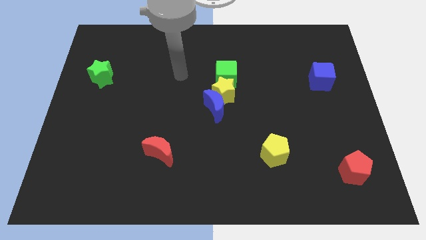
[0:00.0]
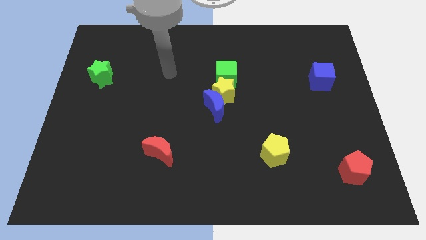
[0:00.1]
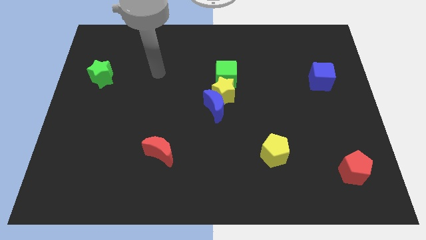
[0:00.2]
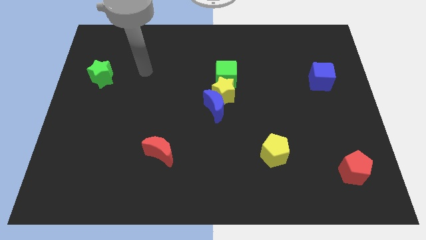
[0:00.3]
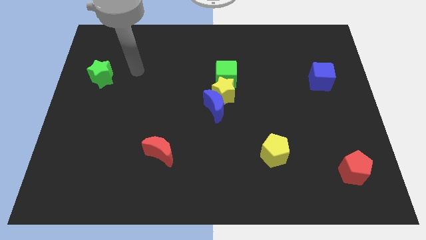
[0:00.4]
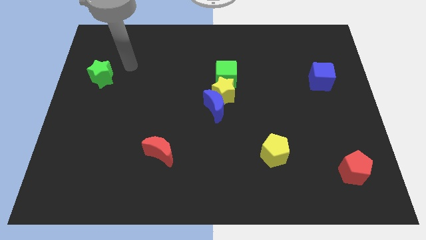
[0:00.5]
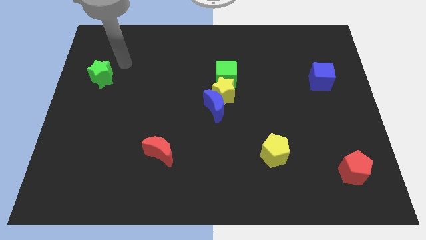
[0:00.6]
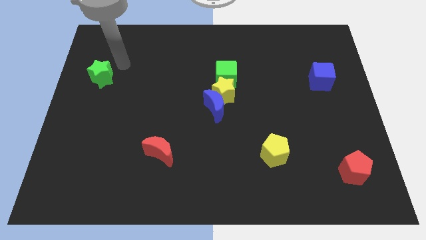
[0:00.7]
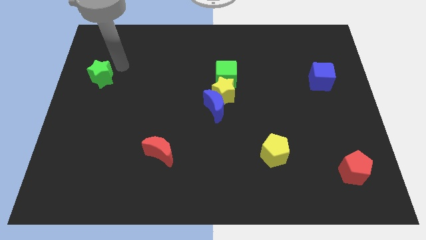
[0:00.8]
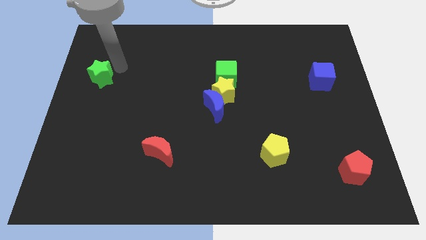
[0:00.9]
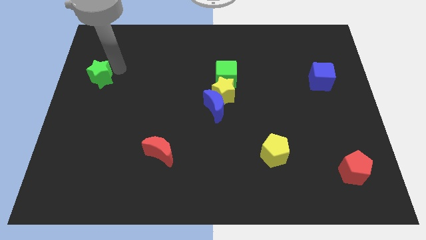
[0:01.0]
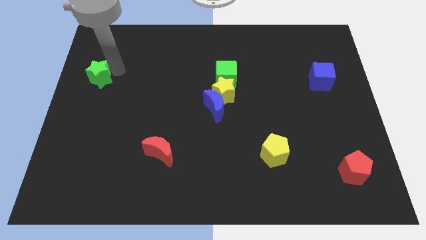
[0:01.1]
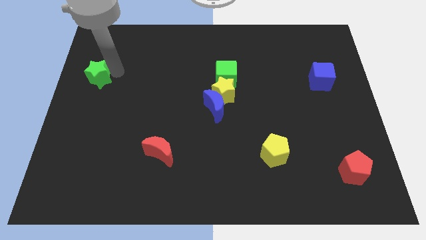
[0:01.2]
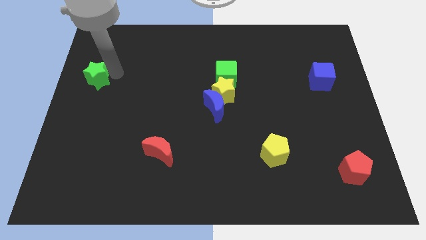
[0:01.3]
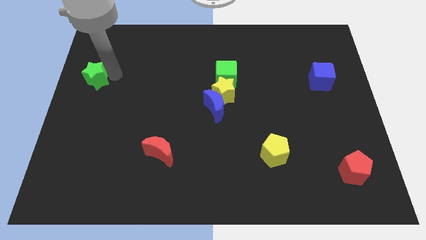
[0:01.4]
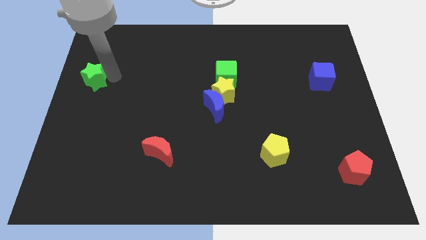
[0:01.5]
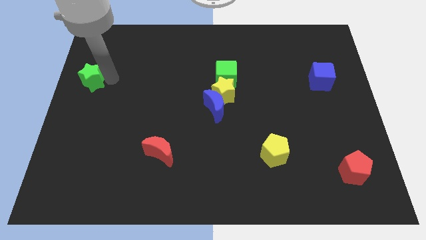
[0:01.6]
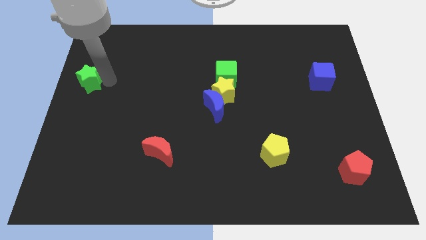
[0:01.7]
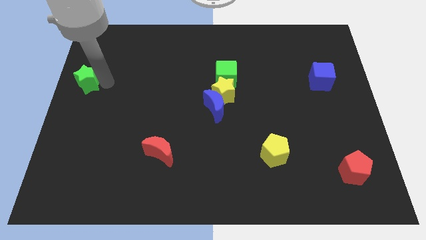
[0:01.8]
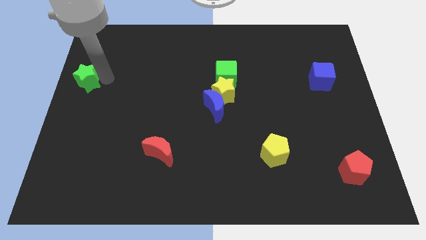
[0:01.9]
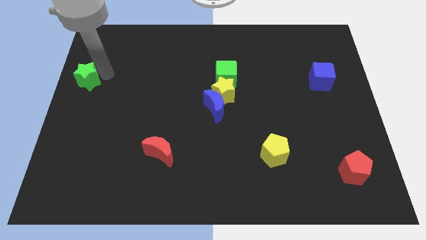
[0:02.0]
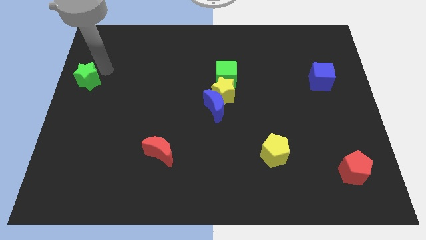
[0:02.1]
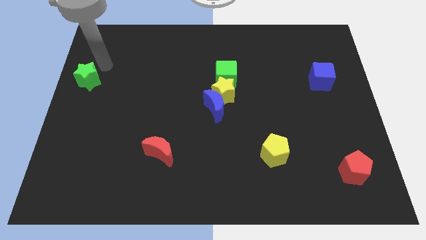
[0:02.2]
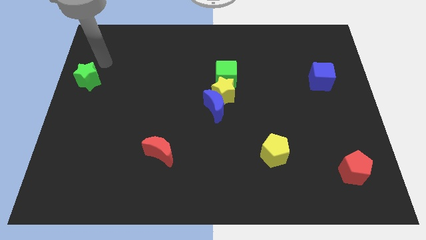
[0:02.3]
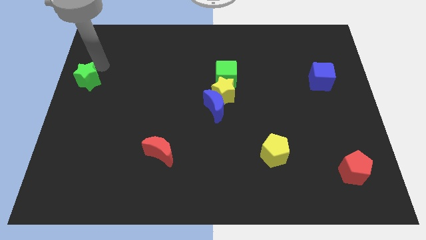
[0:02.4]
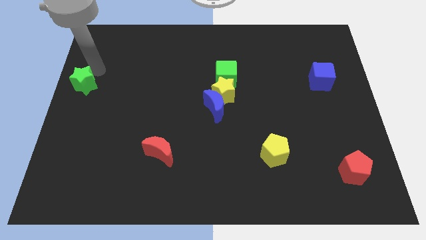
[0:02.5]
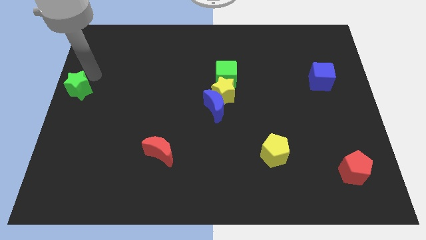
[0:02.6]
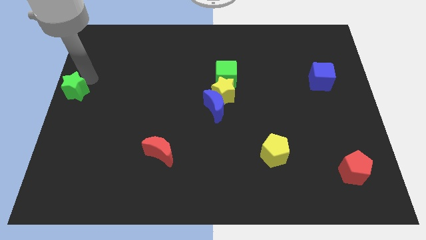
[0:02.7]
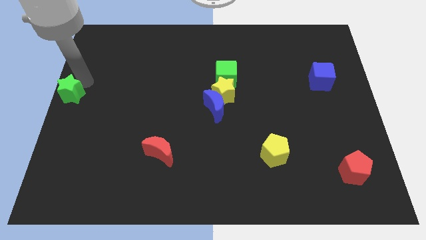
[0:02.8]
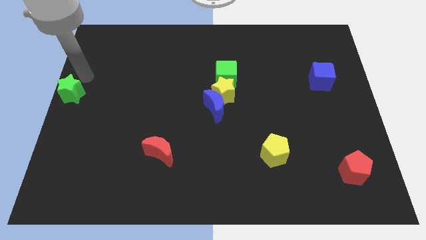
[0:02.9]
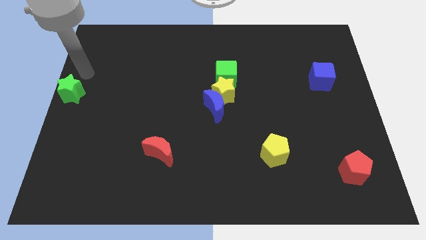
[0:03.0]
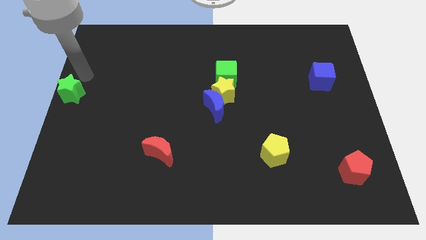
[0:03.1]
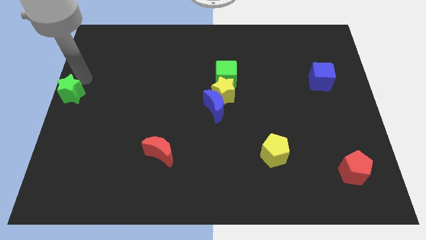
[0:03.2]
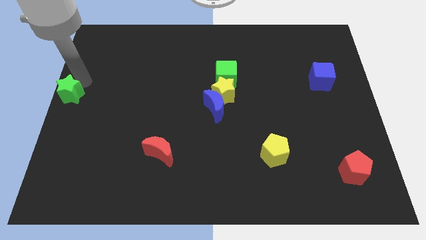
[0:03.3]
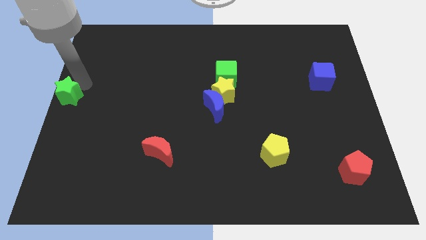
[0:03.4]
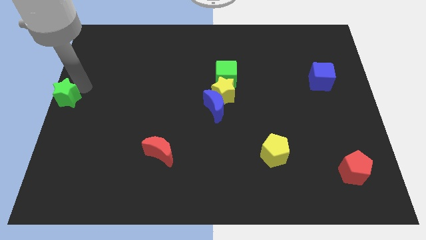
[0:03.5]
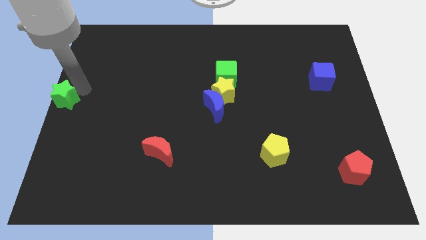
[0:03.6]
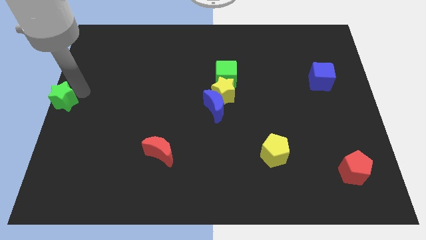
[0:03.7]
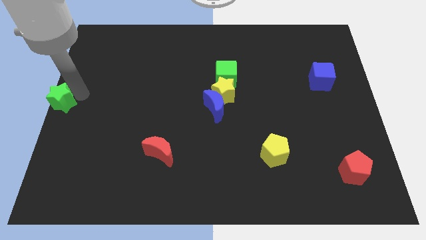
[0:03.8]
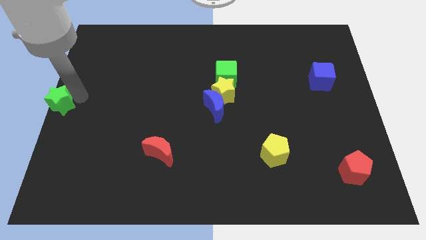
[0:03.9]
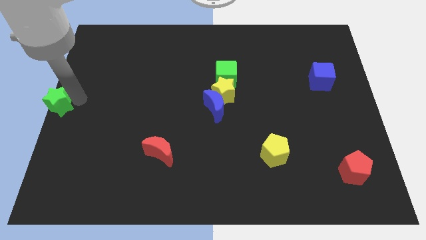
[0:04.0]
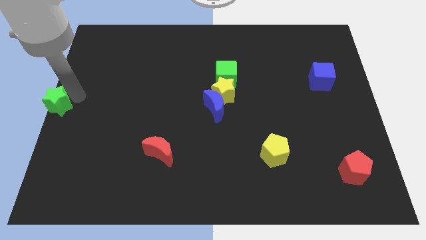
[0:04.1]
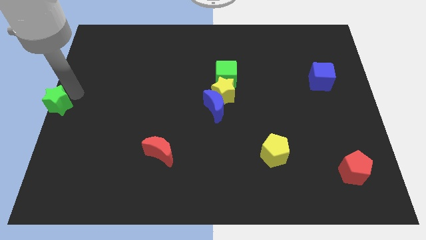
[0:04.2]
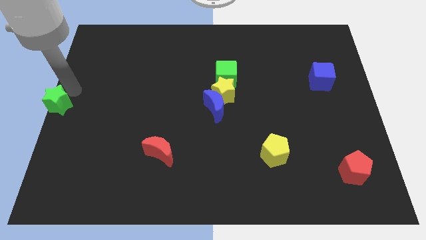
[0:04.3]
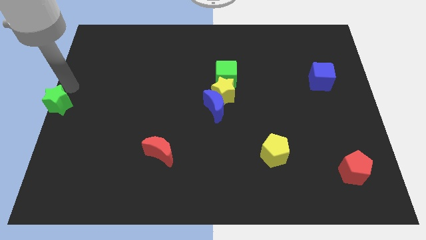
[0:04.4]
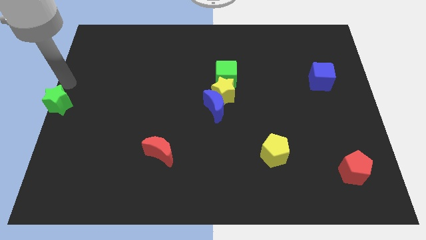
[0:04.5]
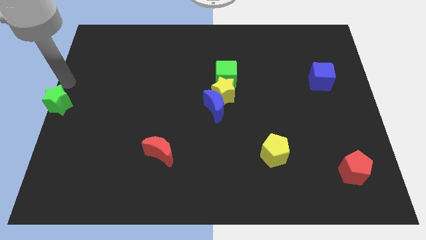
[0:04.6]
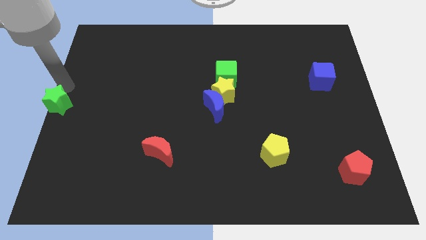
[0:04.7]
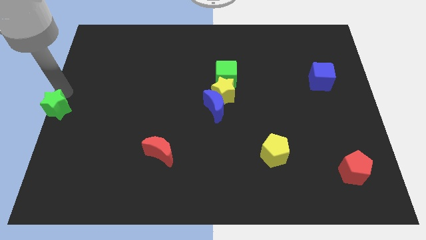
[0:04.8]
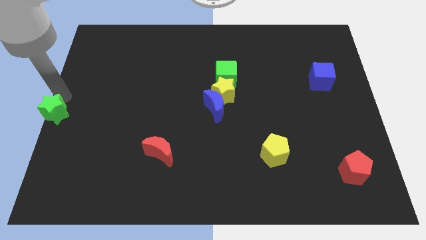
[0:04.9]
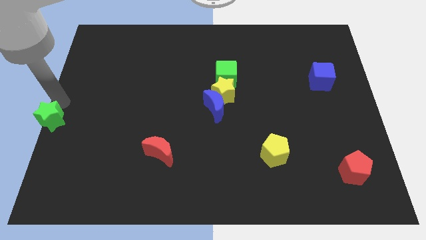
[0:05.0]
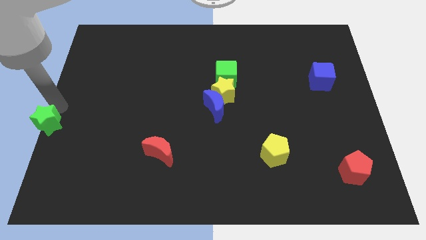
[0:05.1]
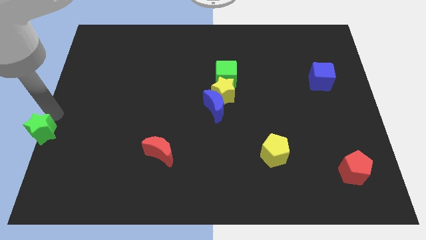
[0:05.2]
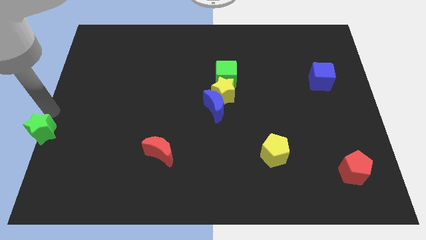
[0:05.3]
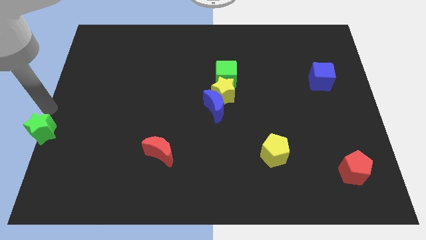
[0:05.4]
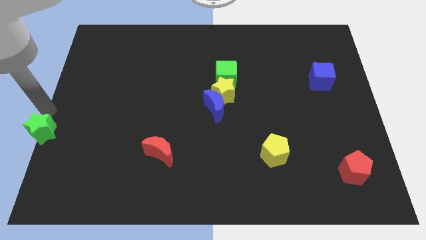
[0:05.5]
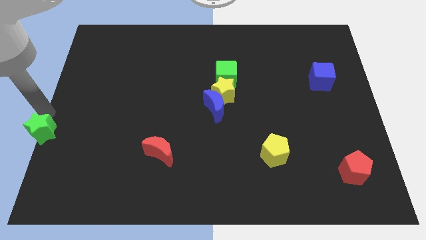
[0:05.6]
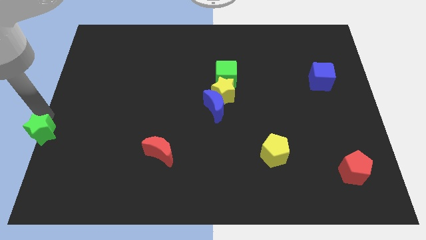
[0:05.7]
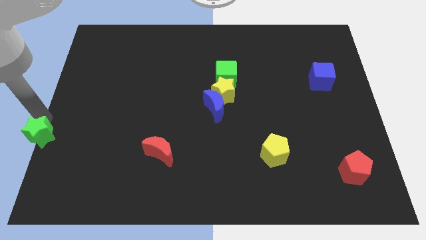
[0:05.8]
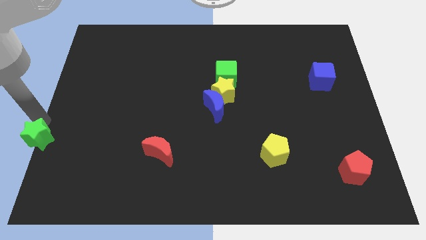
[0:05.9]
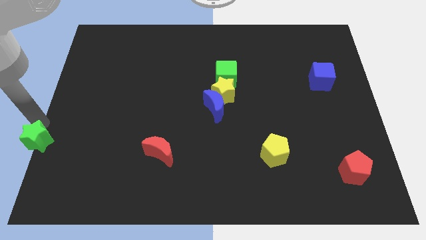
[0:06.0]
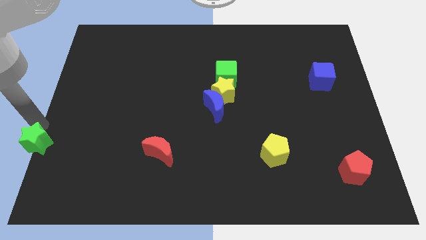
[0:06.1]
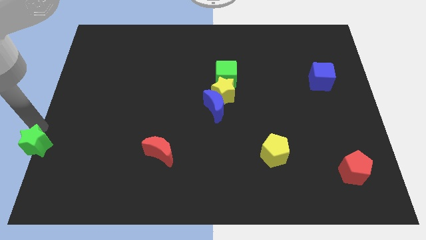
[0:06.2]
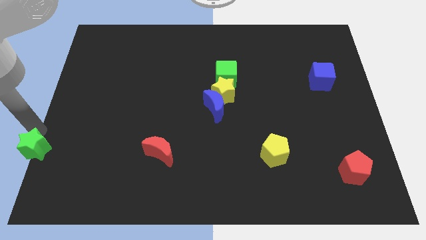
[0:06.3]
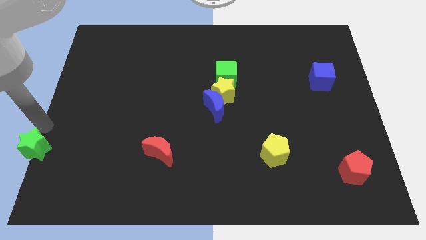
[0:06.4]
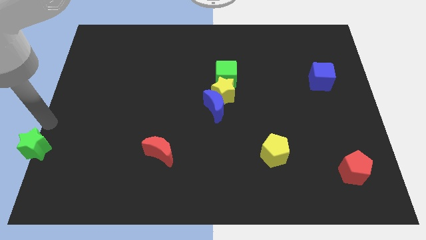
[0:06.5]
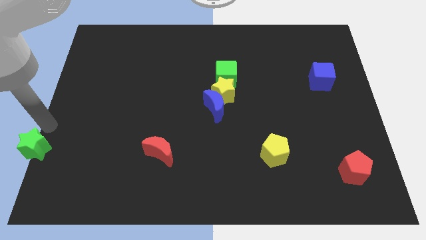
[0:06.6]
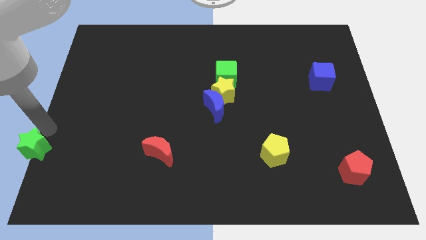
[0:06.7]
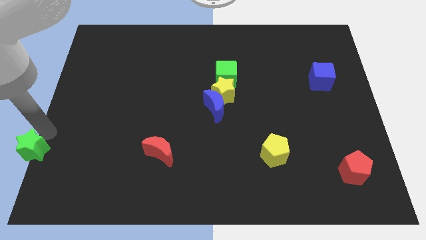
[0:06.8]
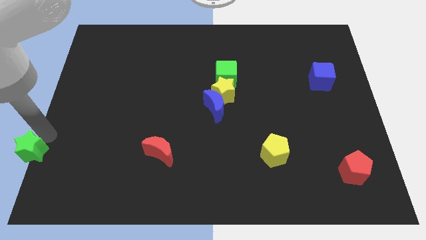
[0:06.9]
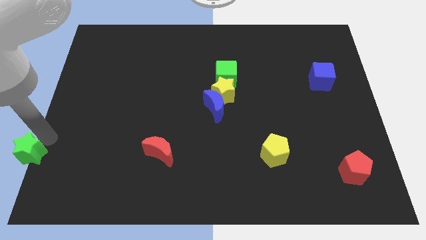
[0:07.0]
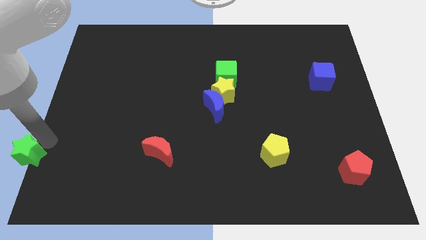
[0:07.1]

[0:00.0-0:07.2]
push the green star to the bottom left corner
